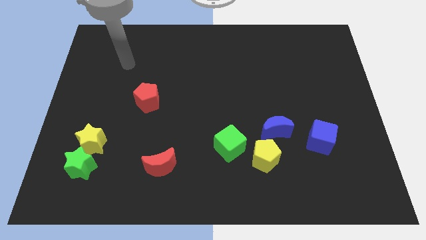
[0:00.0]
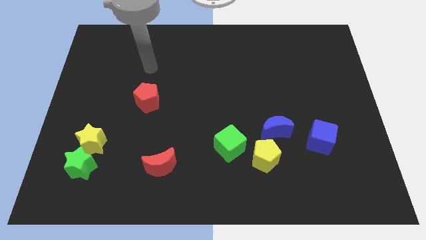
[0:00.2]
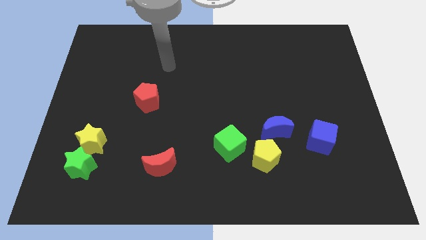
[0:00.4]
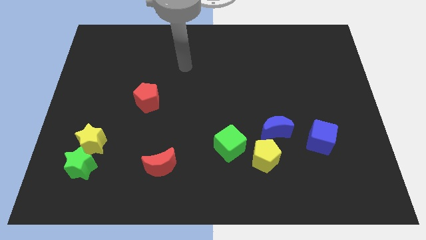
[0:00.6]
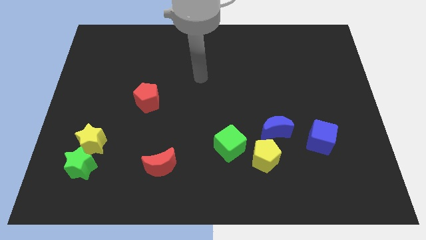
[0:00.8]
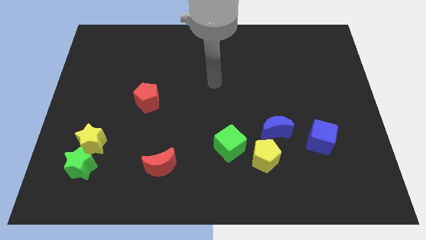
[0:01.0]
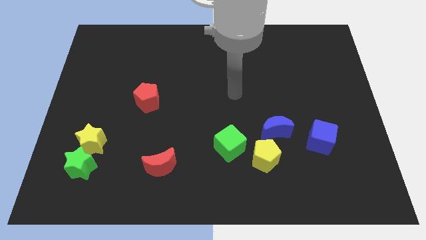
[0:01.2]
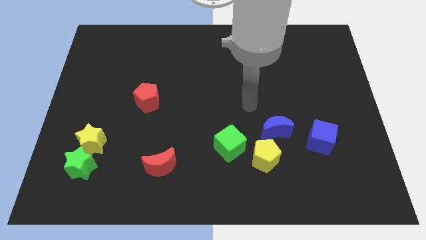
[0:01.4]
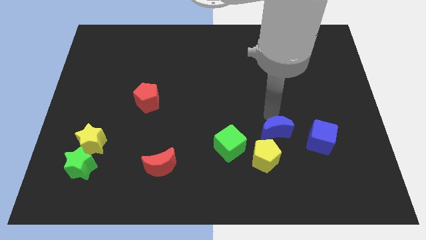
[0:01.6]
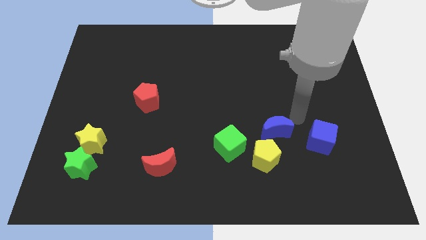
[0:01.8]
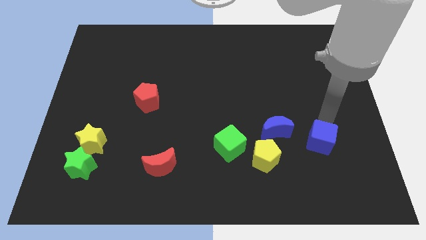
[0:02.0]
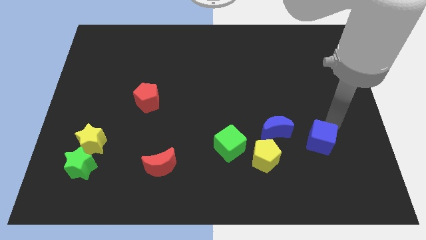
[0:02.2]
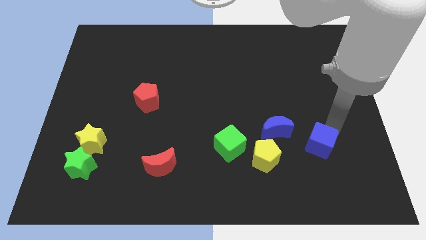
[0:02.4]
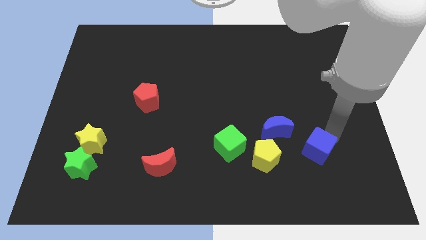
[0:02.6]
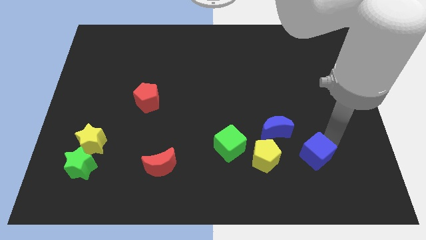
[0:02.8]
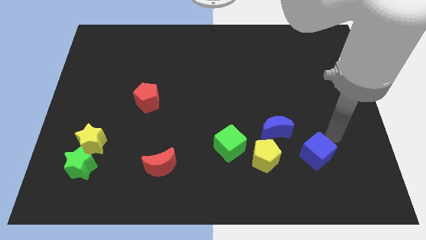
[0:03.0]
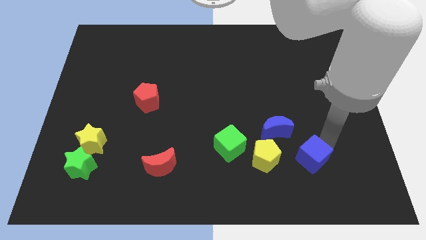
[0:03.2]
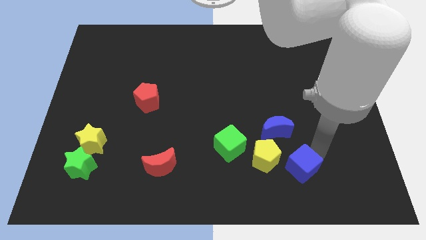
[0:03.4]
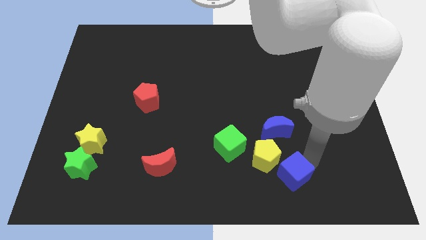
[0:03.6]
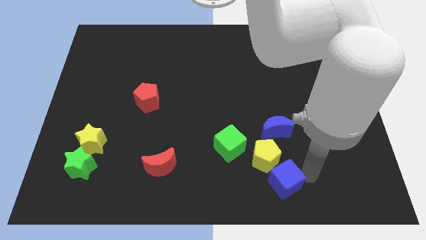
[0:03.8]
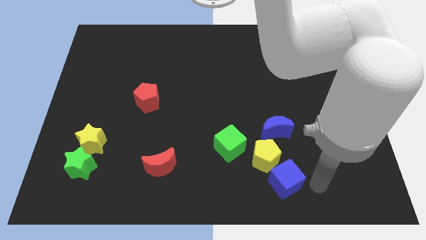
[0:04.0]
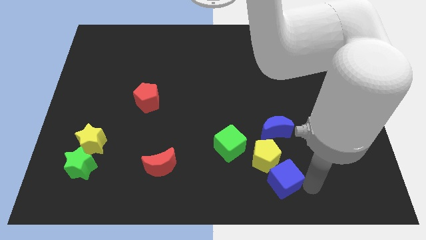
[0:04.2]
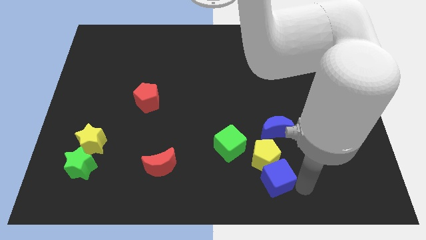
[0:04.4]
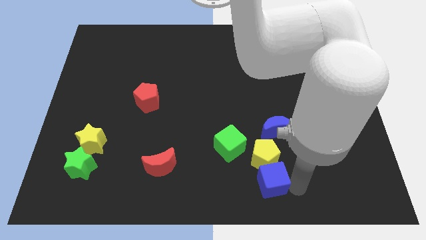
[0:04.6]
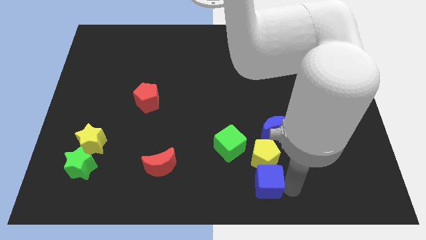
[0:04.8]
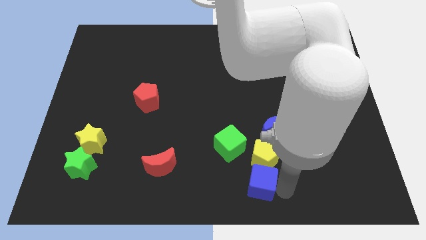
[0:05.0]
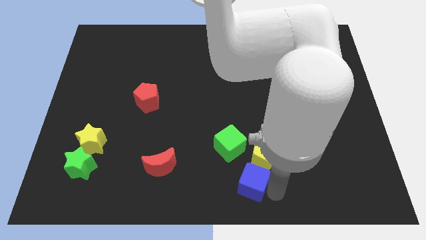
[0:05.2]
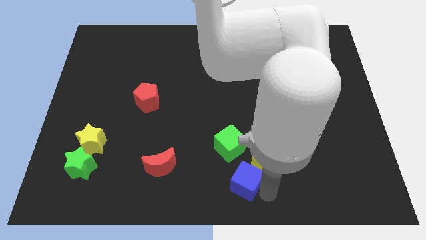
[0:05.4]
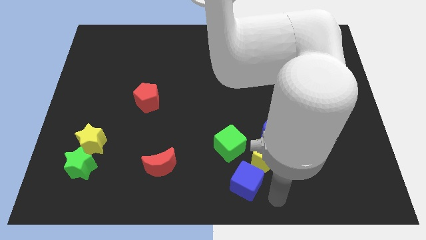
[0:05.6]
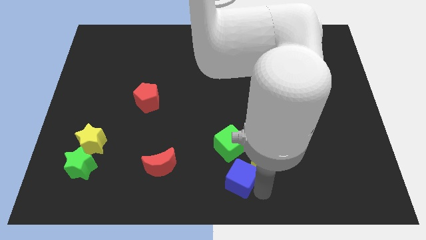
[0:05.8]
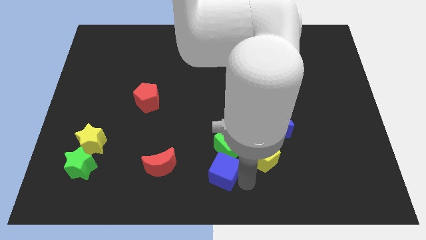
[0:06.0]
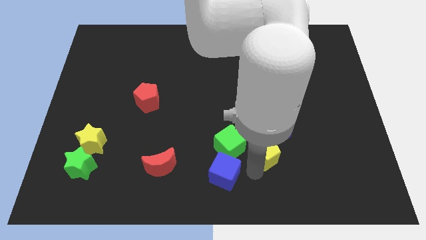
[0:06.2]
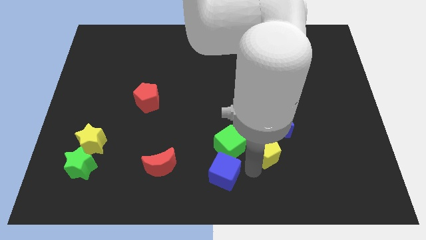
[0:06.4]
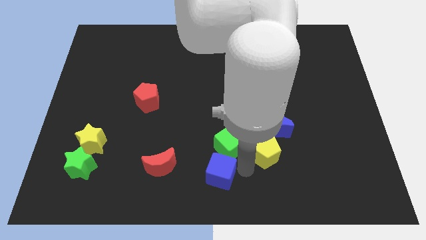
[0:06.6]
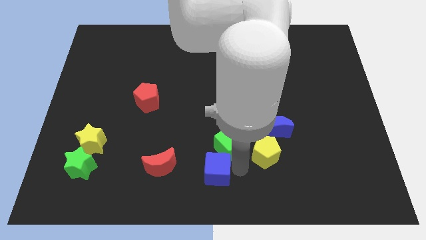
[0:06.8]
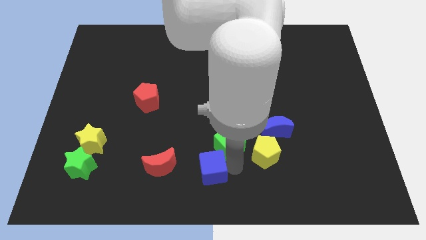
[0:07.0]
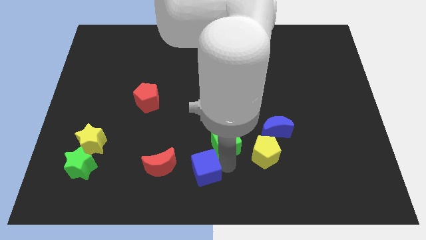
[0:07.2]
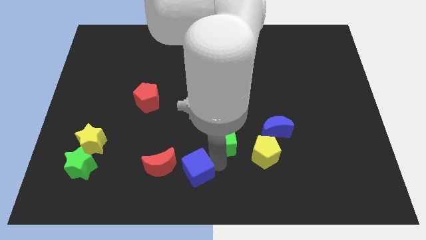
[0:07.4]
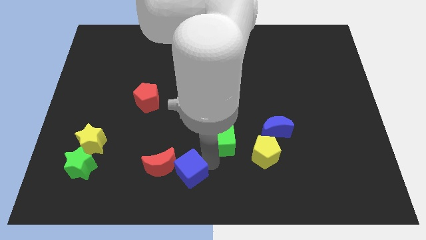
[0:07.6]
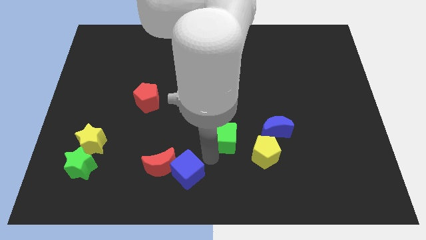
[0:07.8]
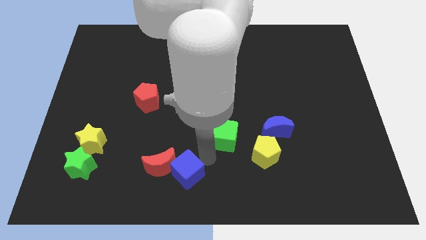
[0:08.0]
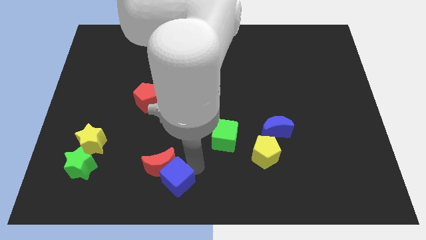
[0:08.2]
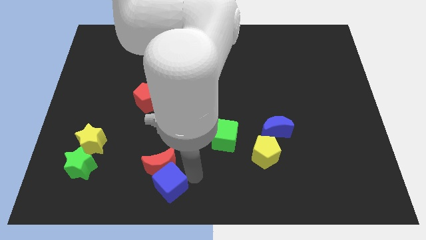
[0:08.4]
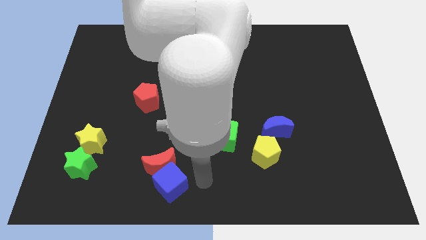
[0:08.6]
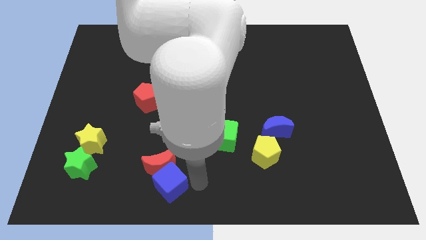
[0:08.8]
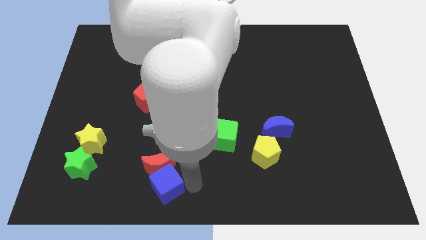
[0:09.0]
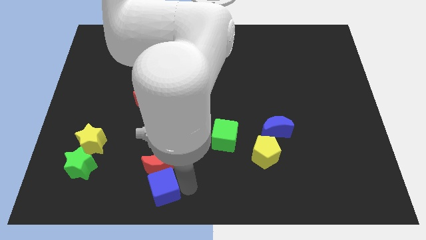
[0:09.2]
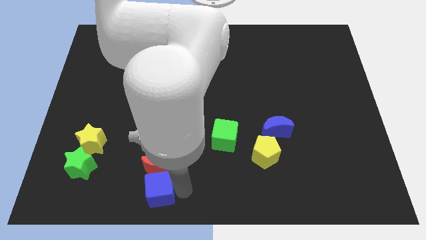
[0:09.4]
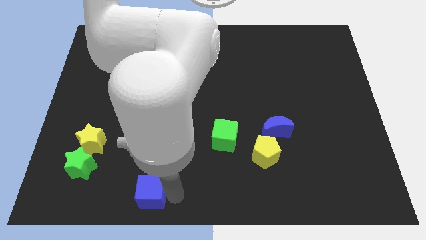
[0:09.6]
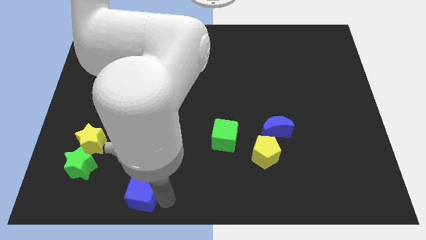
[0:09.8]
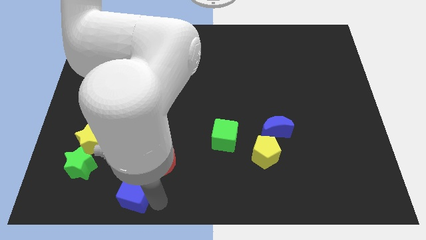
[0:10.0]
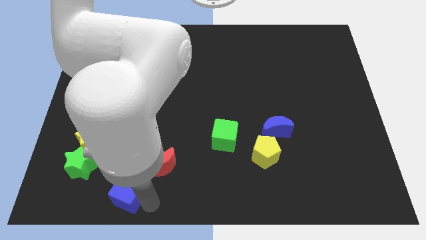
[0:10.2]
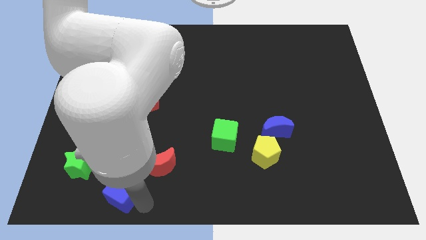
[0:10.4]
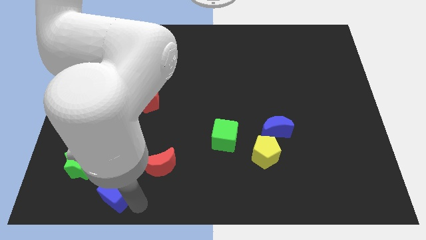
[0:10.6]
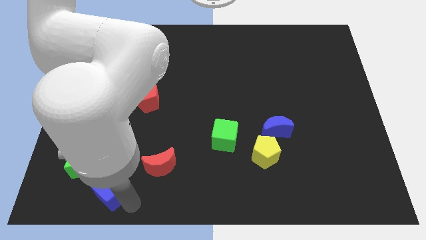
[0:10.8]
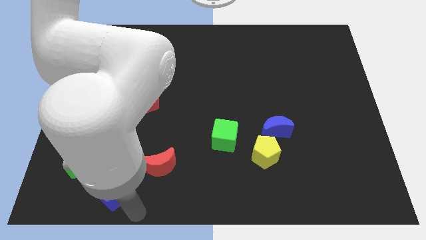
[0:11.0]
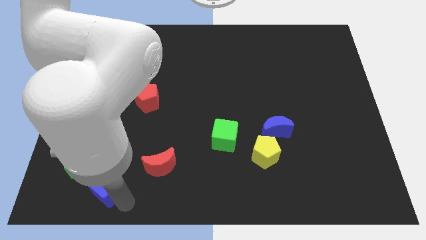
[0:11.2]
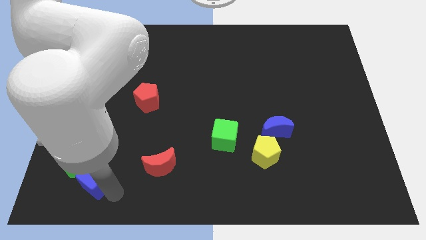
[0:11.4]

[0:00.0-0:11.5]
move the blue cube towards the green star

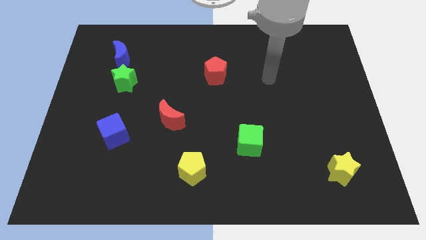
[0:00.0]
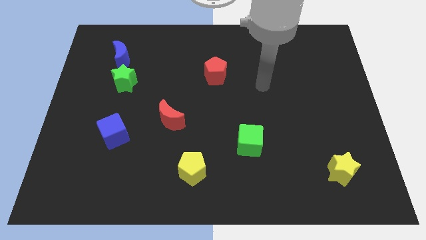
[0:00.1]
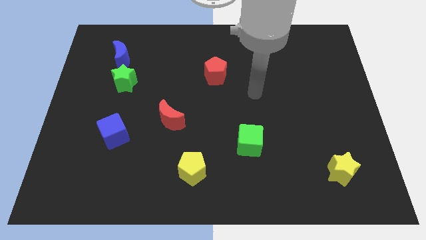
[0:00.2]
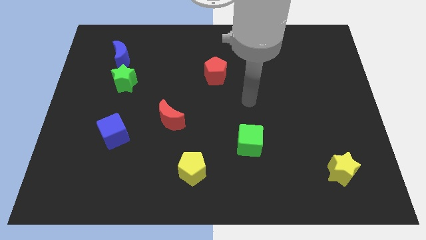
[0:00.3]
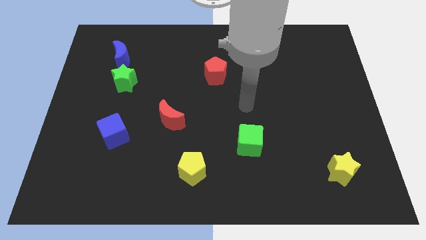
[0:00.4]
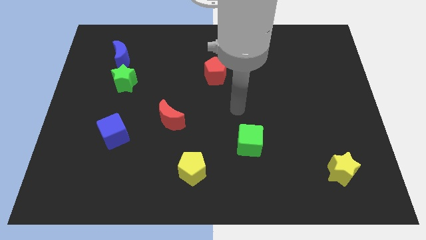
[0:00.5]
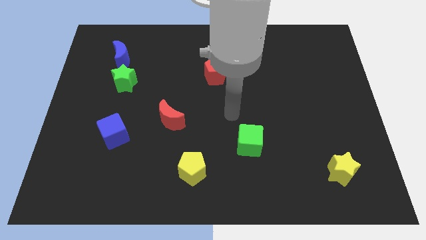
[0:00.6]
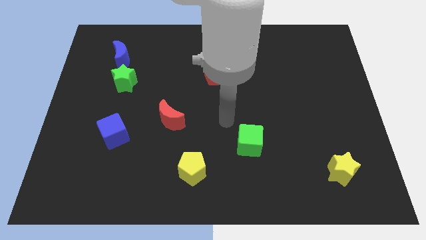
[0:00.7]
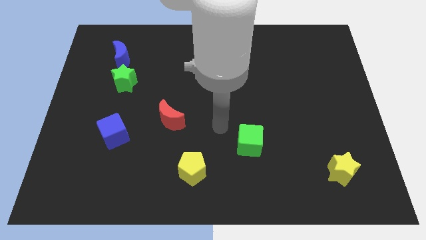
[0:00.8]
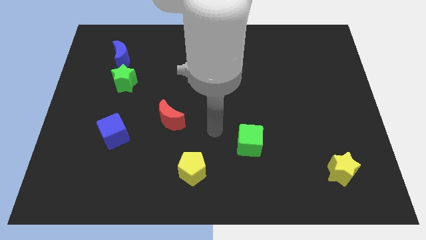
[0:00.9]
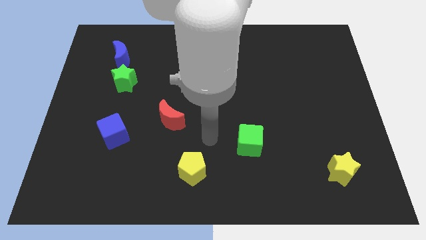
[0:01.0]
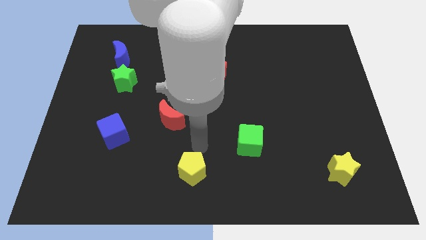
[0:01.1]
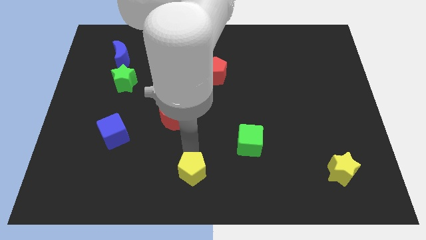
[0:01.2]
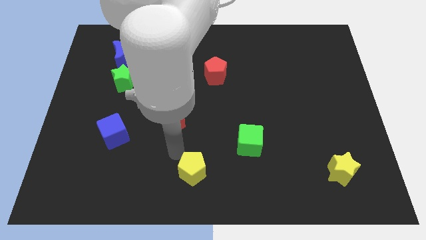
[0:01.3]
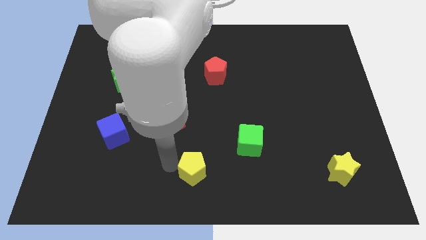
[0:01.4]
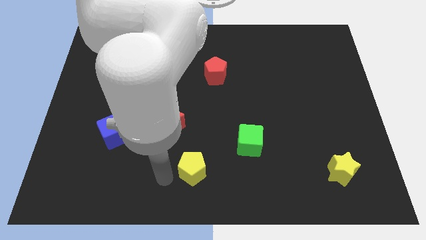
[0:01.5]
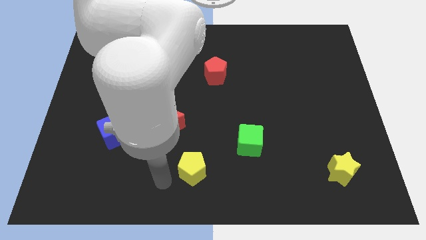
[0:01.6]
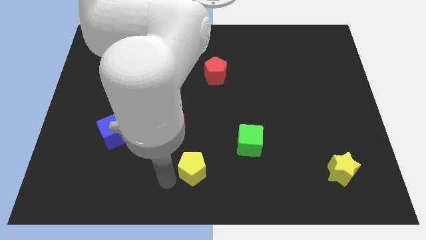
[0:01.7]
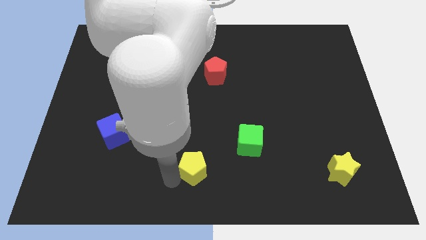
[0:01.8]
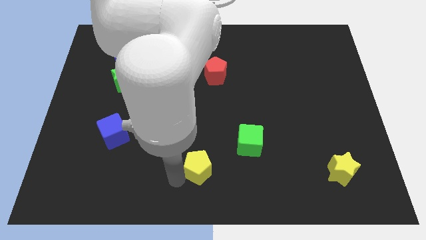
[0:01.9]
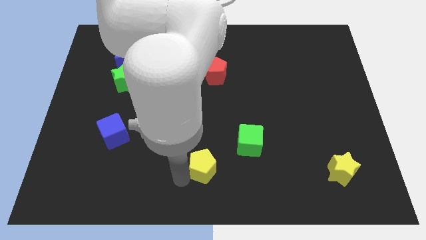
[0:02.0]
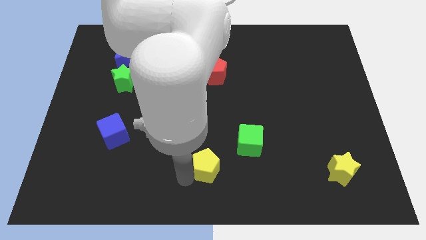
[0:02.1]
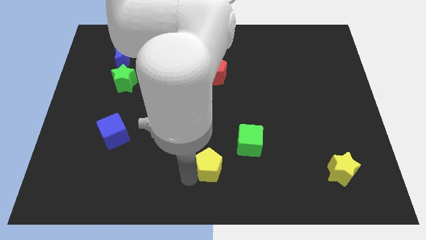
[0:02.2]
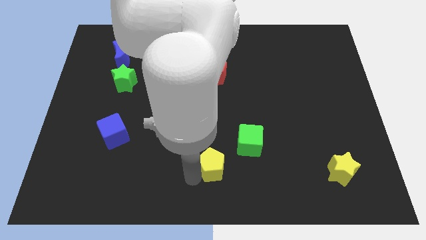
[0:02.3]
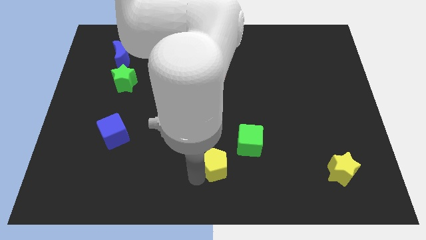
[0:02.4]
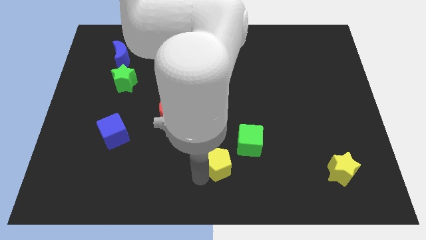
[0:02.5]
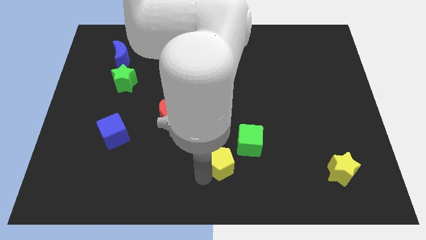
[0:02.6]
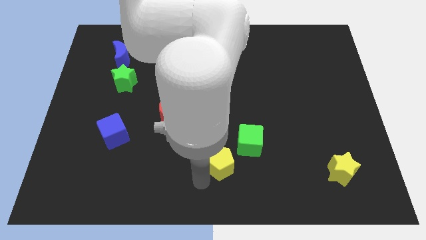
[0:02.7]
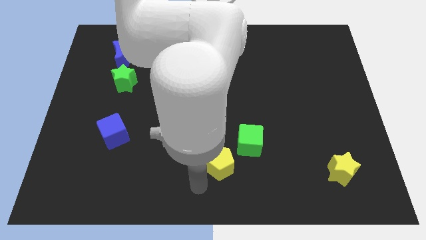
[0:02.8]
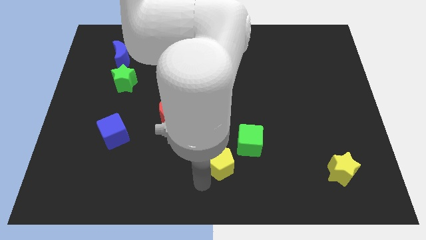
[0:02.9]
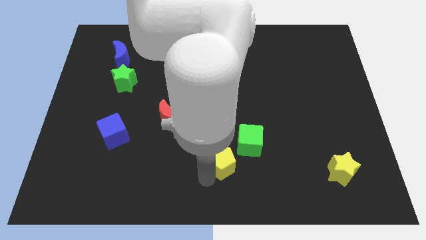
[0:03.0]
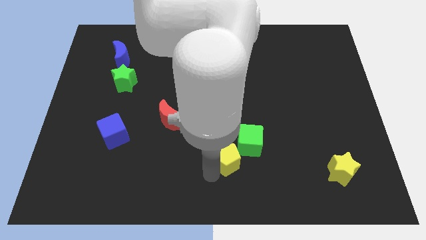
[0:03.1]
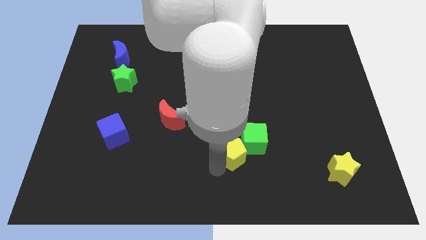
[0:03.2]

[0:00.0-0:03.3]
push the yellow pentagon close to the green cube
